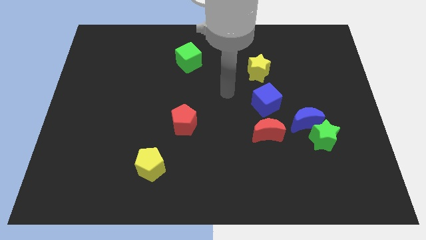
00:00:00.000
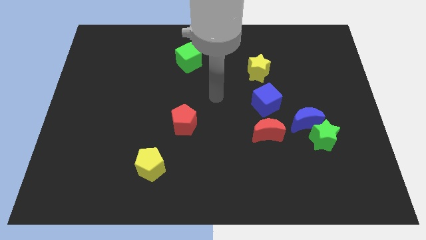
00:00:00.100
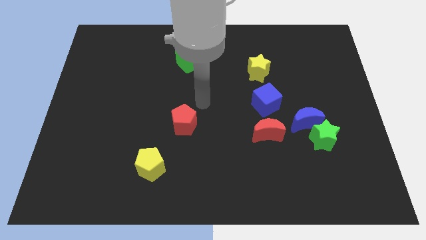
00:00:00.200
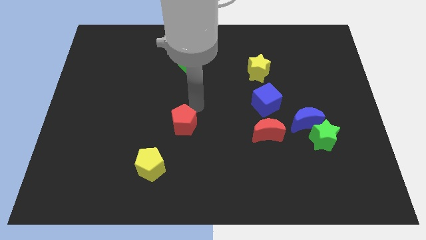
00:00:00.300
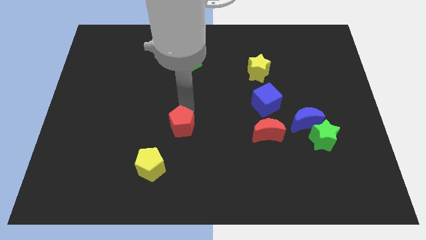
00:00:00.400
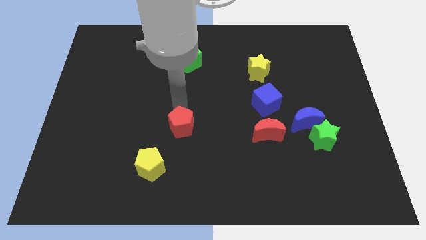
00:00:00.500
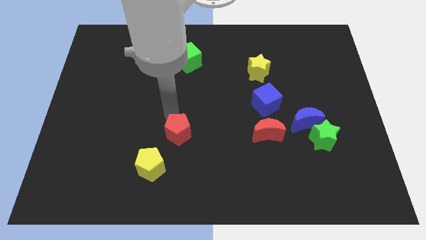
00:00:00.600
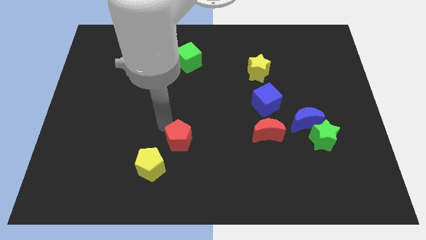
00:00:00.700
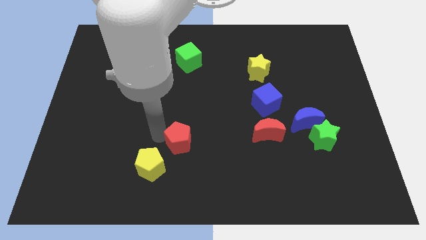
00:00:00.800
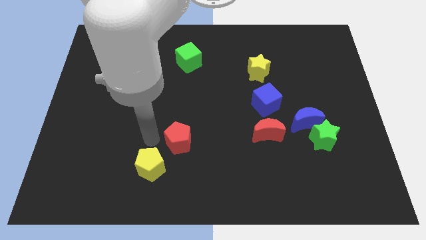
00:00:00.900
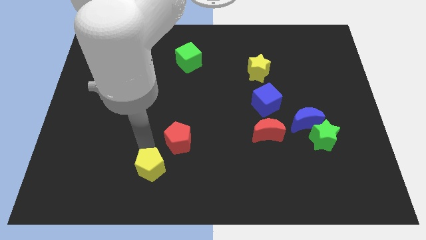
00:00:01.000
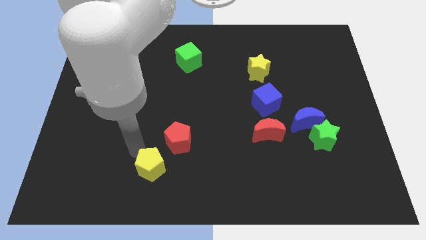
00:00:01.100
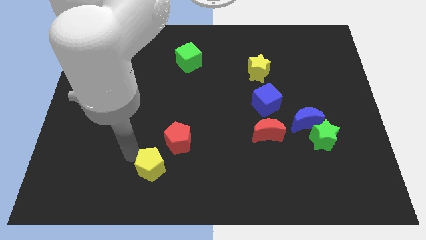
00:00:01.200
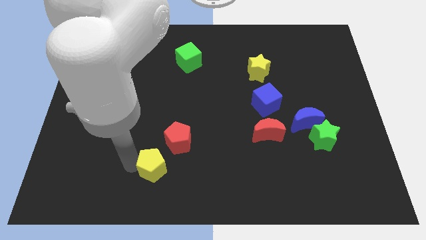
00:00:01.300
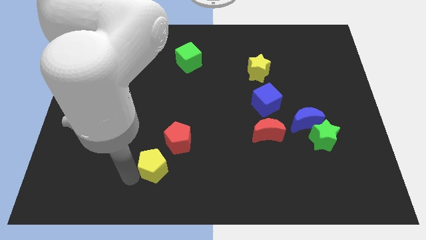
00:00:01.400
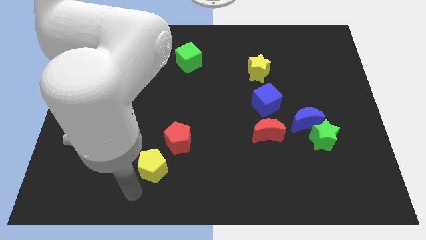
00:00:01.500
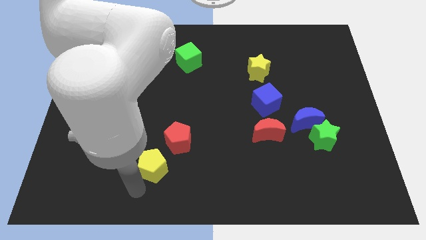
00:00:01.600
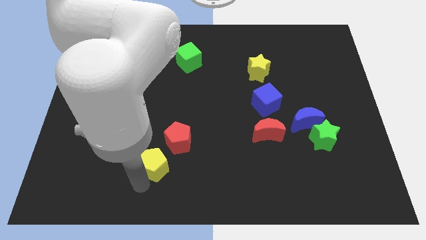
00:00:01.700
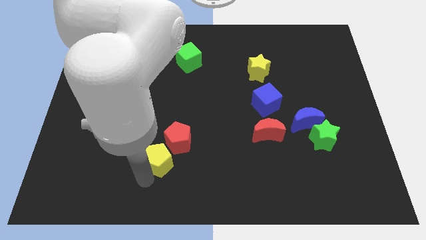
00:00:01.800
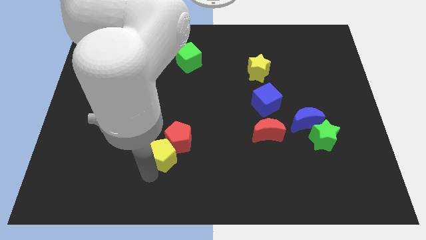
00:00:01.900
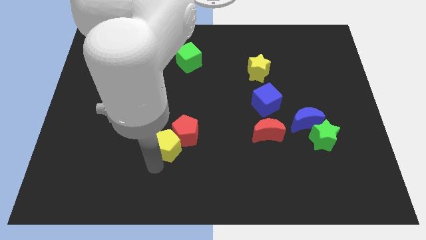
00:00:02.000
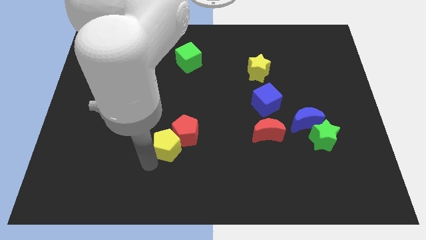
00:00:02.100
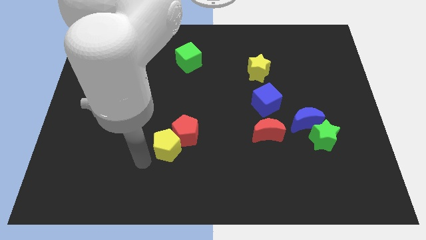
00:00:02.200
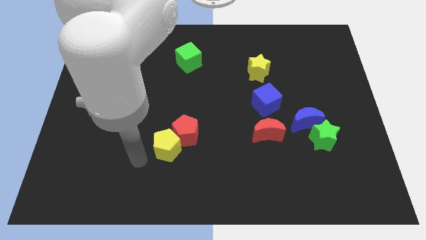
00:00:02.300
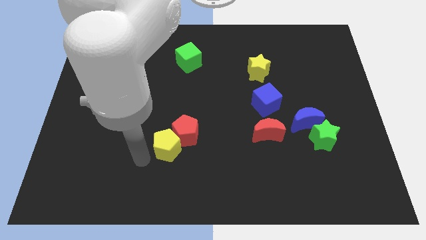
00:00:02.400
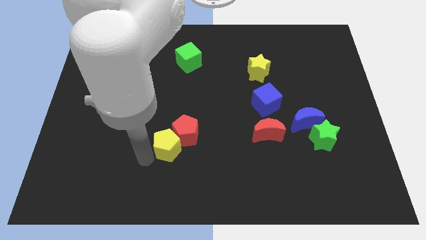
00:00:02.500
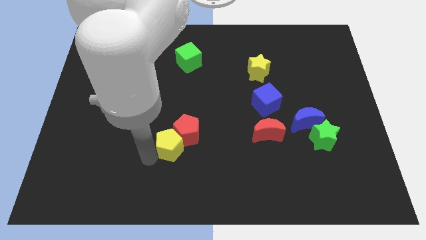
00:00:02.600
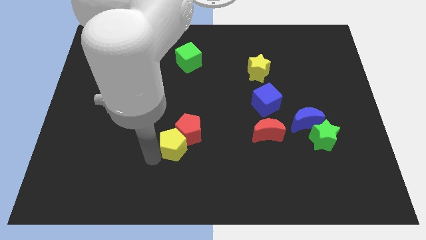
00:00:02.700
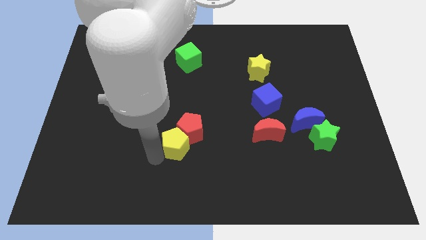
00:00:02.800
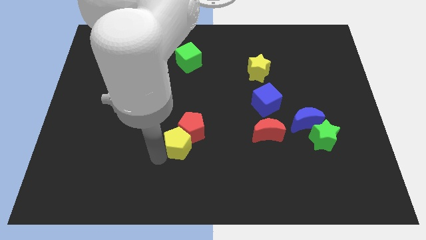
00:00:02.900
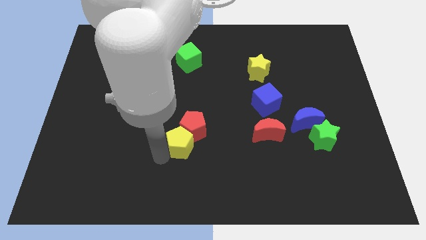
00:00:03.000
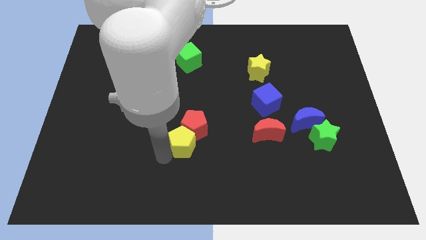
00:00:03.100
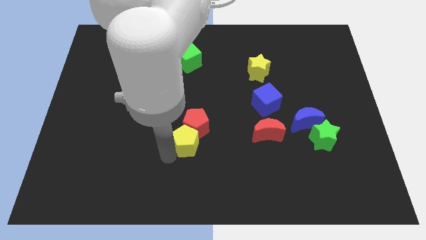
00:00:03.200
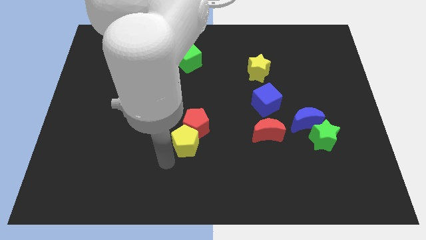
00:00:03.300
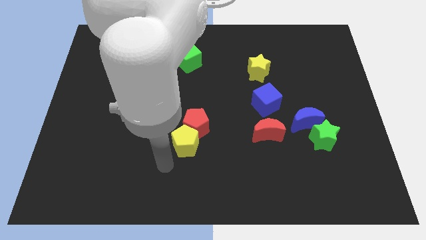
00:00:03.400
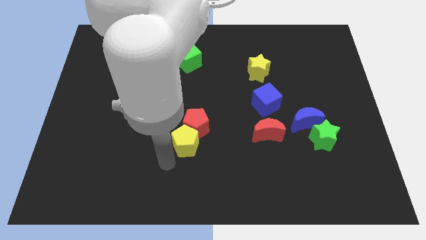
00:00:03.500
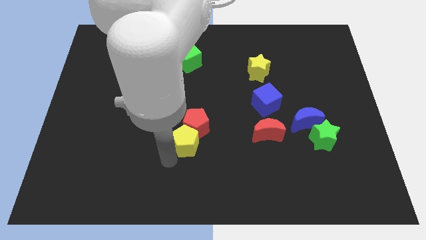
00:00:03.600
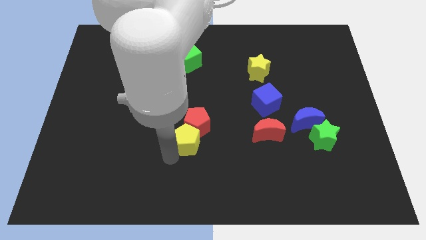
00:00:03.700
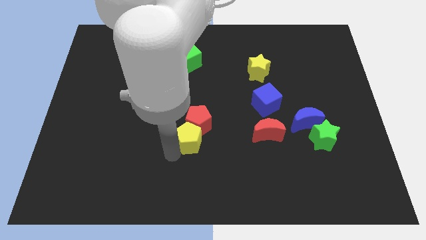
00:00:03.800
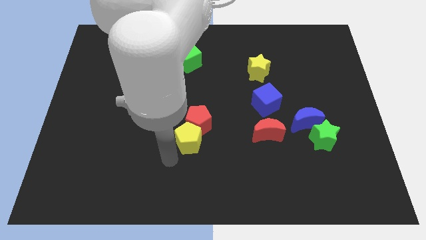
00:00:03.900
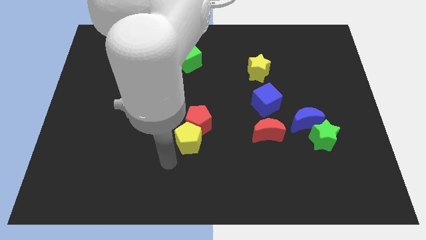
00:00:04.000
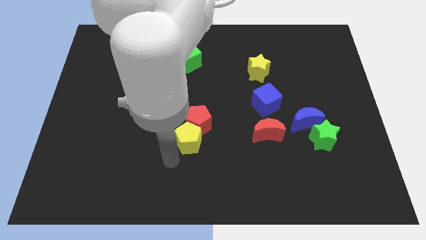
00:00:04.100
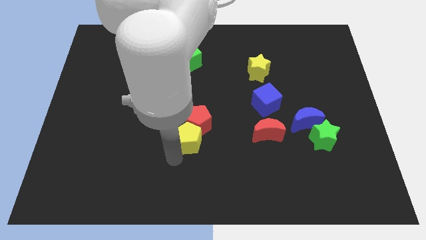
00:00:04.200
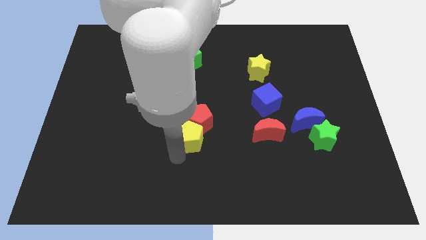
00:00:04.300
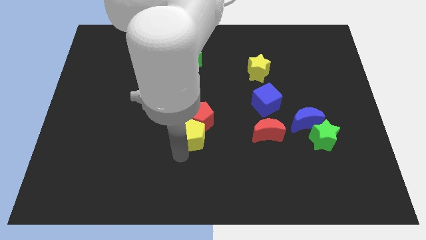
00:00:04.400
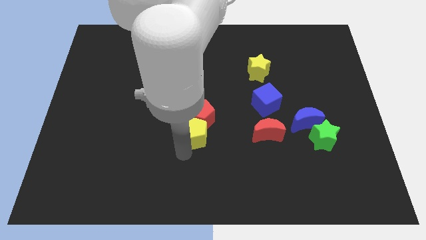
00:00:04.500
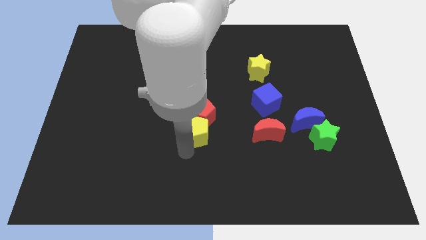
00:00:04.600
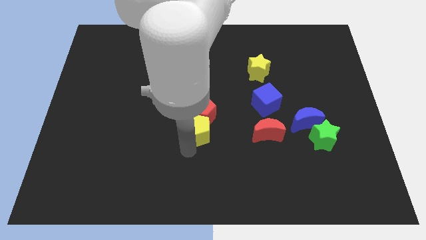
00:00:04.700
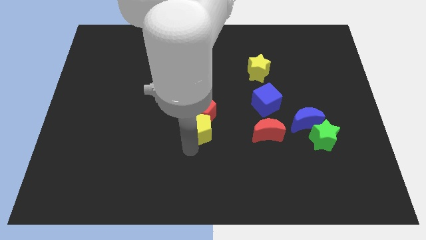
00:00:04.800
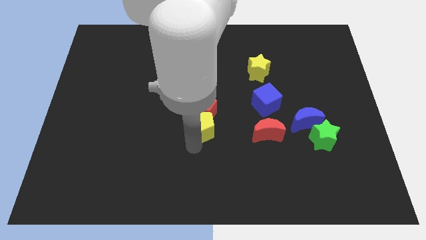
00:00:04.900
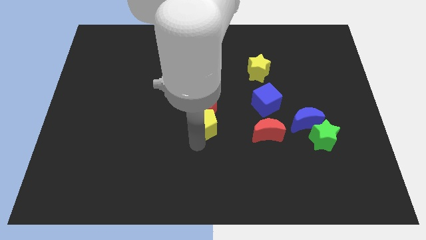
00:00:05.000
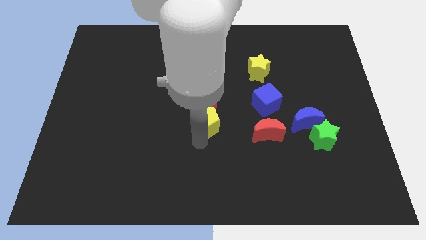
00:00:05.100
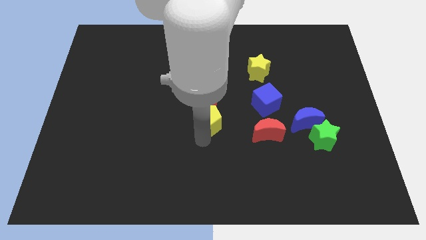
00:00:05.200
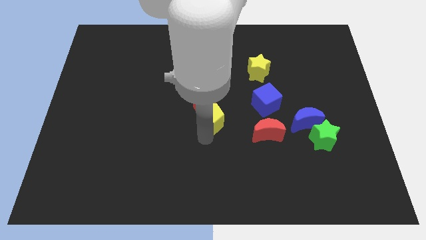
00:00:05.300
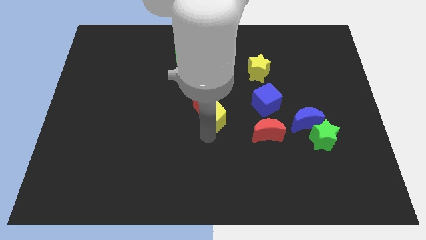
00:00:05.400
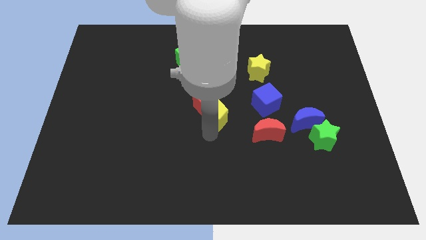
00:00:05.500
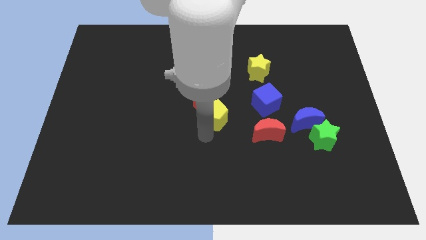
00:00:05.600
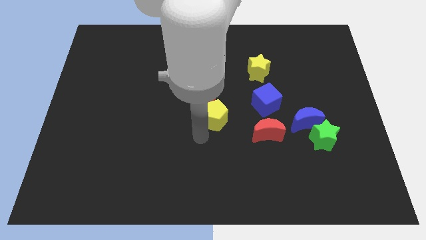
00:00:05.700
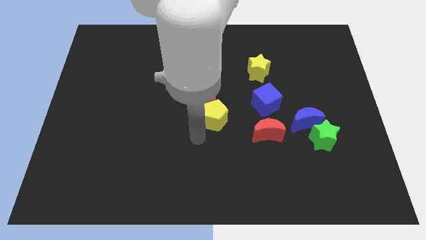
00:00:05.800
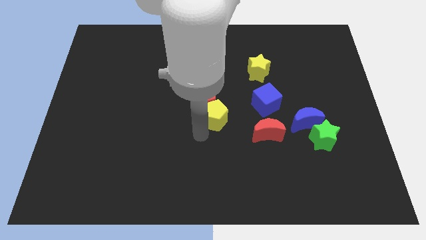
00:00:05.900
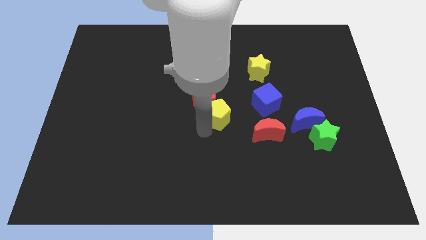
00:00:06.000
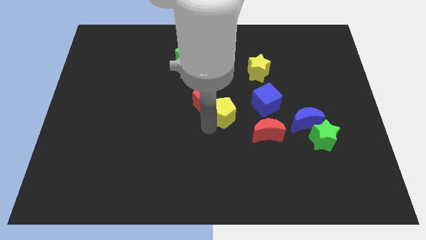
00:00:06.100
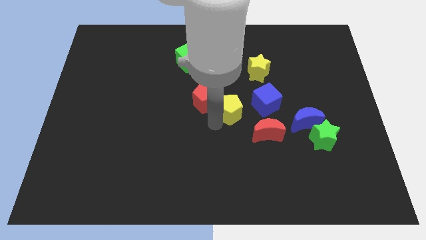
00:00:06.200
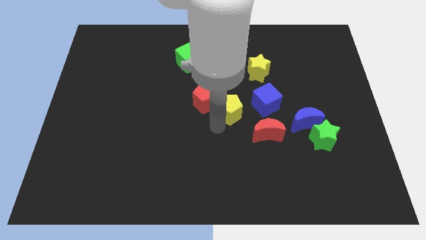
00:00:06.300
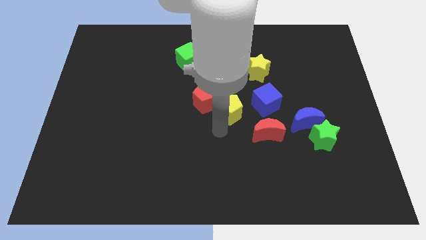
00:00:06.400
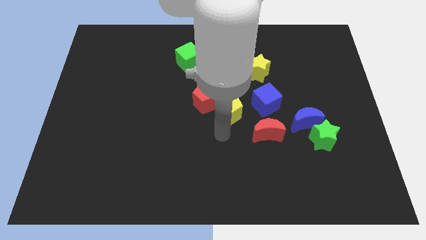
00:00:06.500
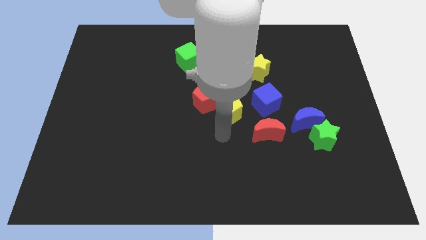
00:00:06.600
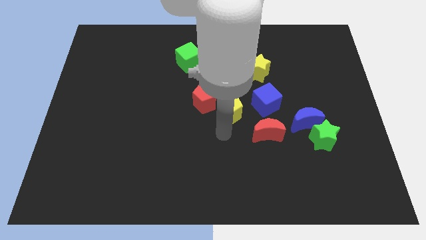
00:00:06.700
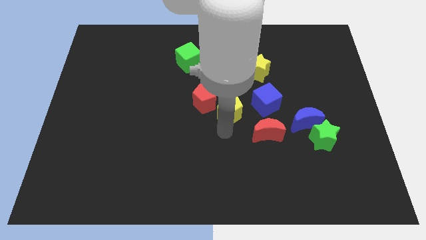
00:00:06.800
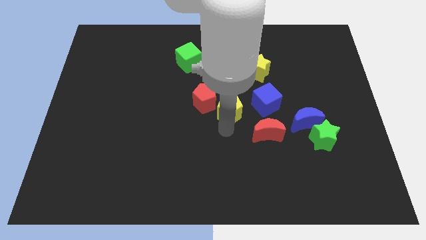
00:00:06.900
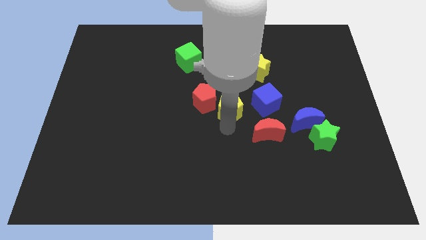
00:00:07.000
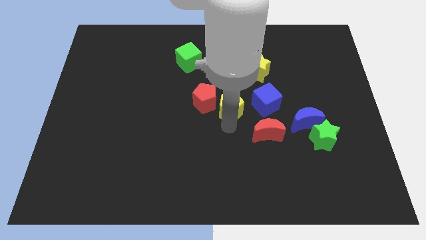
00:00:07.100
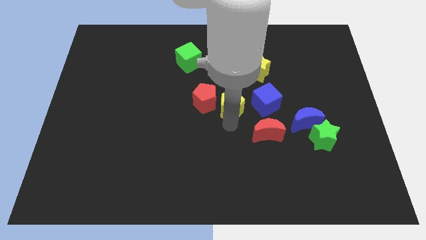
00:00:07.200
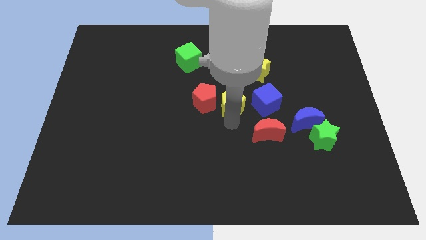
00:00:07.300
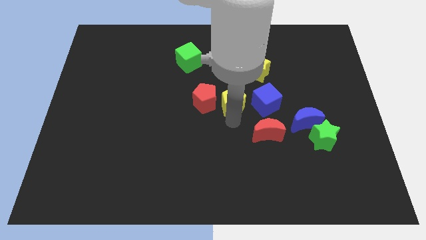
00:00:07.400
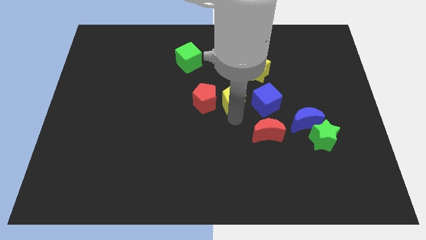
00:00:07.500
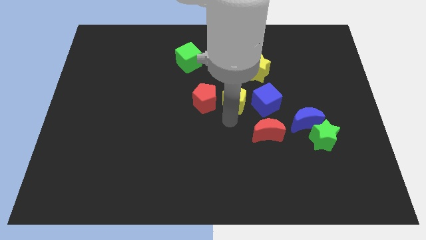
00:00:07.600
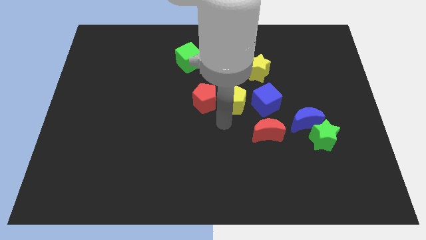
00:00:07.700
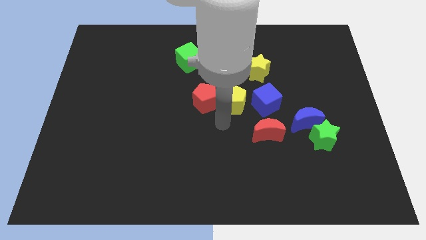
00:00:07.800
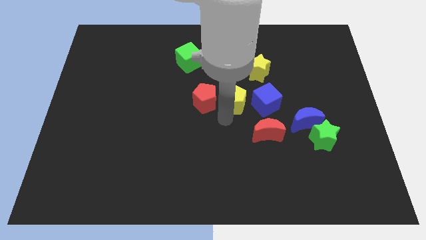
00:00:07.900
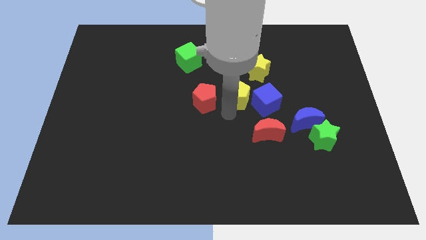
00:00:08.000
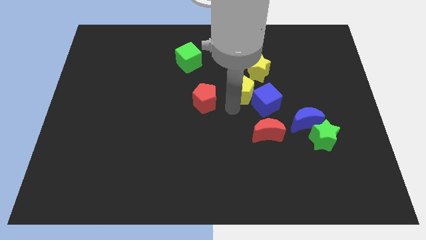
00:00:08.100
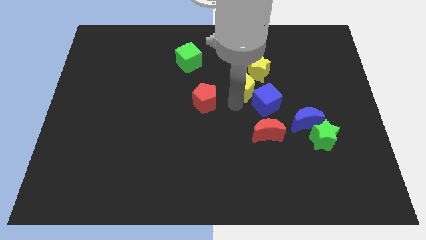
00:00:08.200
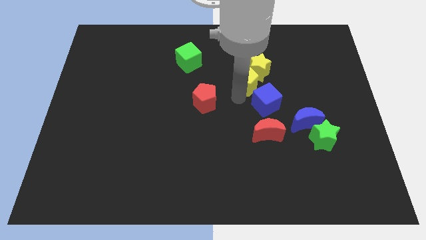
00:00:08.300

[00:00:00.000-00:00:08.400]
push the yellow pentagon next to the yellow star
